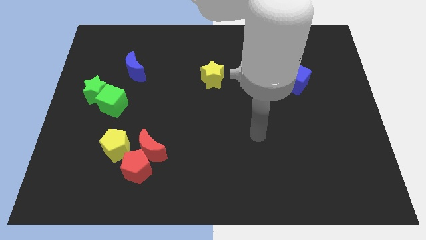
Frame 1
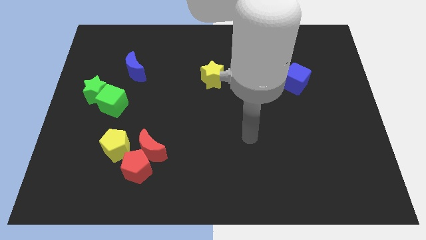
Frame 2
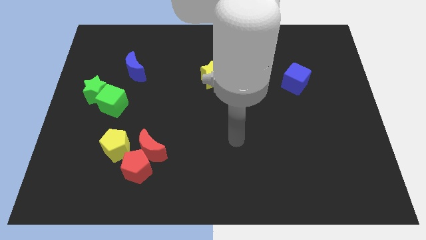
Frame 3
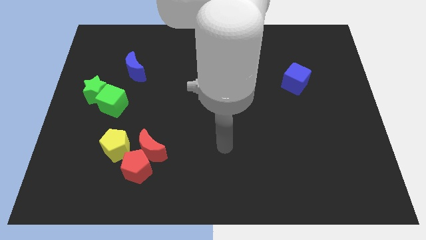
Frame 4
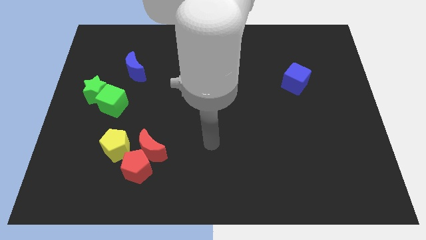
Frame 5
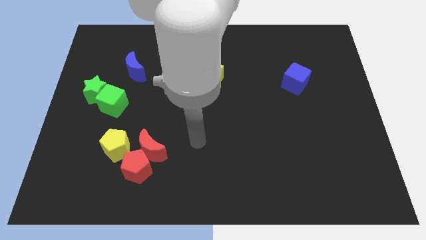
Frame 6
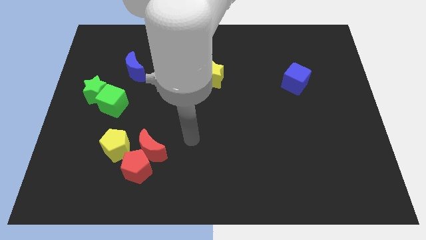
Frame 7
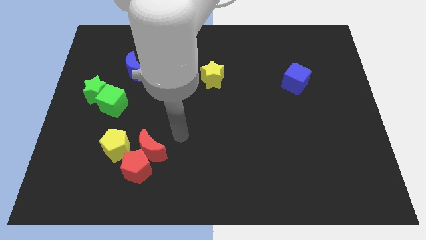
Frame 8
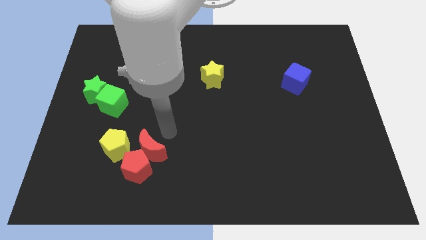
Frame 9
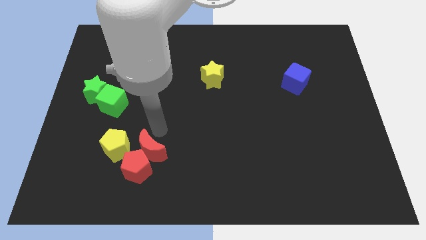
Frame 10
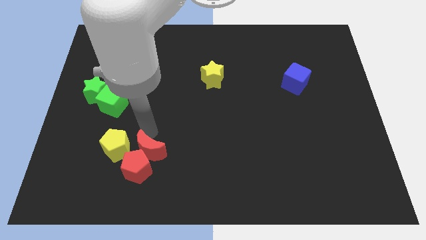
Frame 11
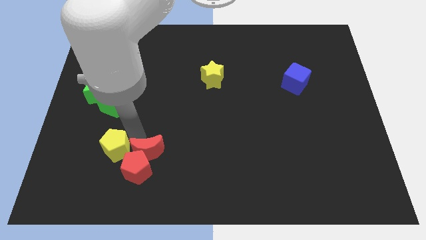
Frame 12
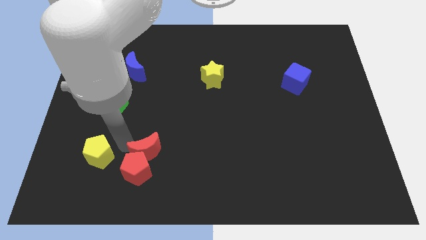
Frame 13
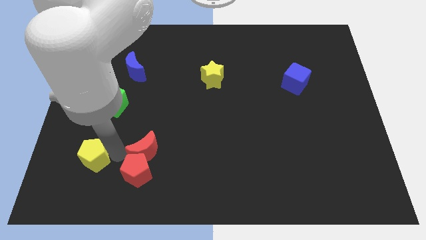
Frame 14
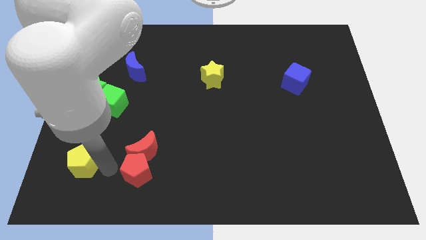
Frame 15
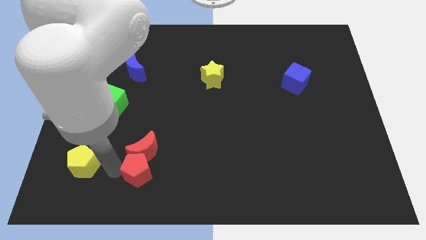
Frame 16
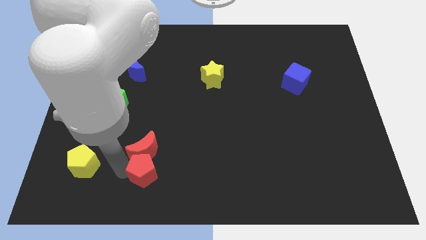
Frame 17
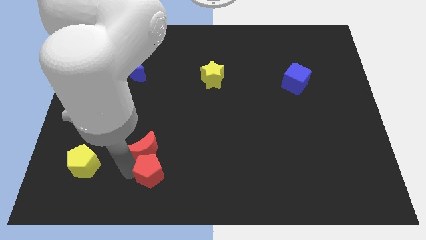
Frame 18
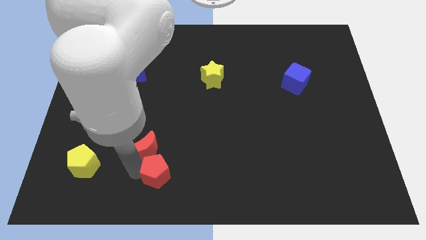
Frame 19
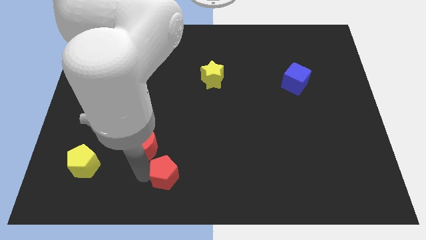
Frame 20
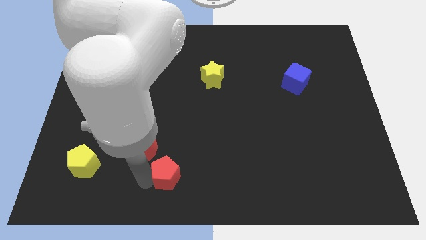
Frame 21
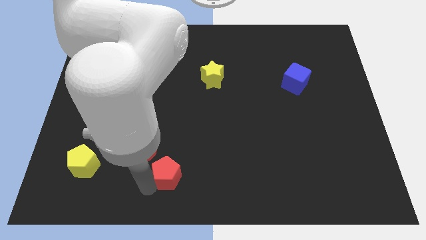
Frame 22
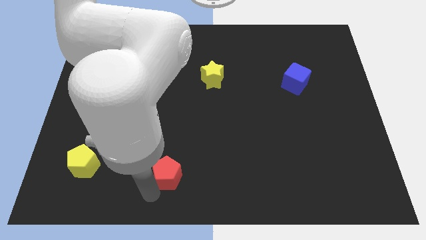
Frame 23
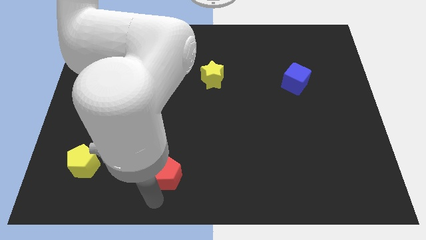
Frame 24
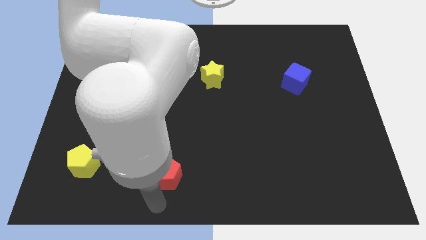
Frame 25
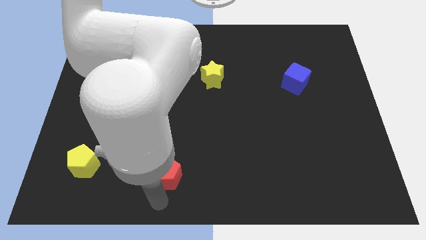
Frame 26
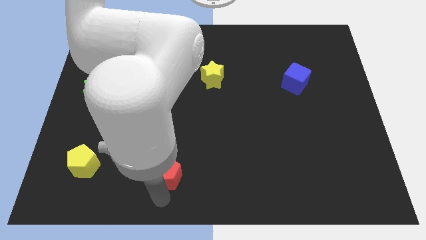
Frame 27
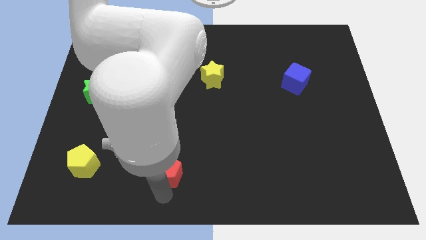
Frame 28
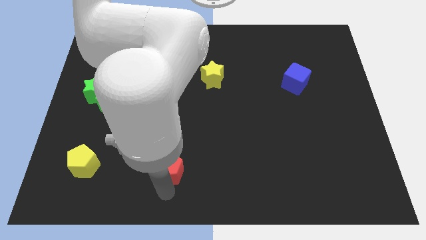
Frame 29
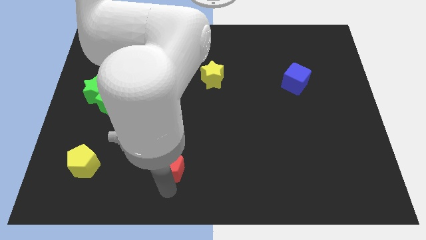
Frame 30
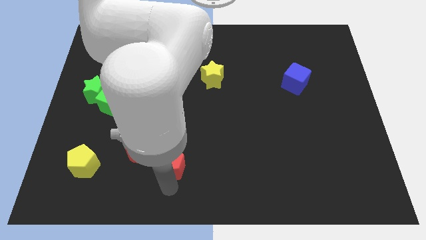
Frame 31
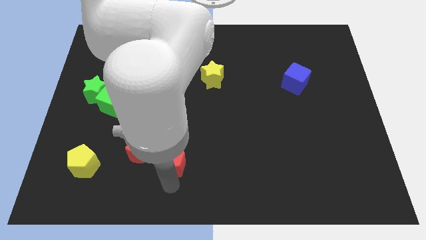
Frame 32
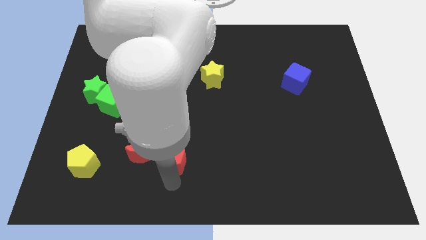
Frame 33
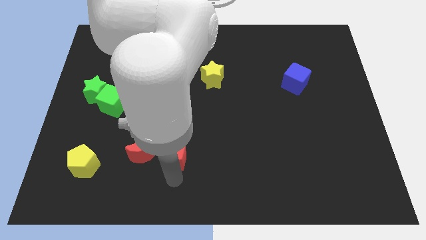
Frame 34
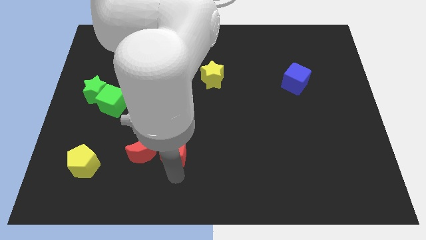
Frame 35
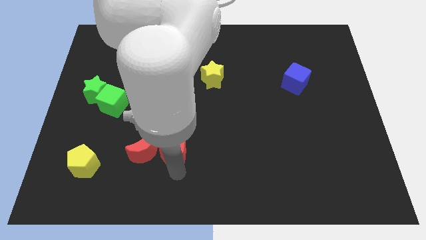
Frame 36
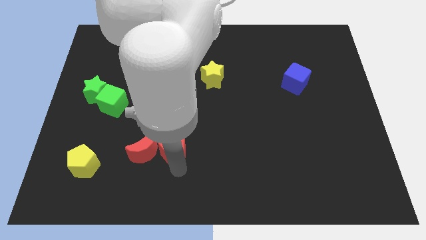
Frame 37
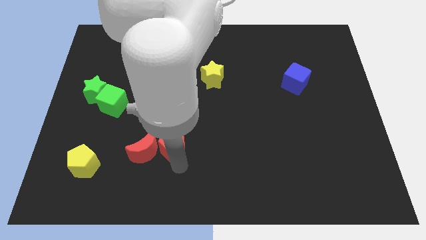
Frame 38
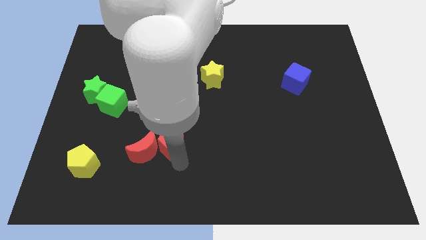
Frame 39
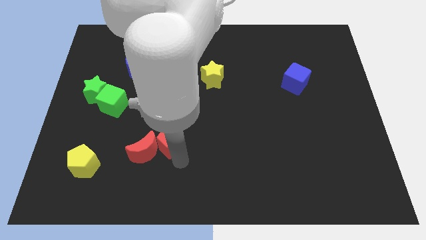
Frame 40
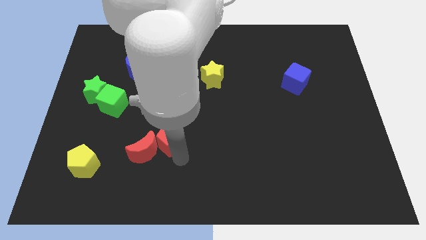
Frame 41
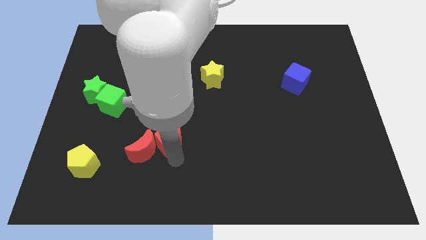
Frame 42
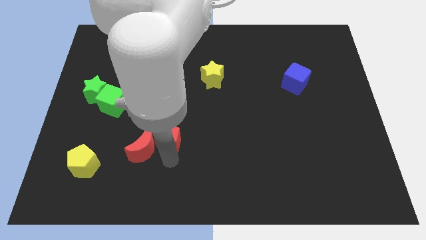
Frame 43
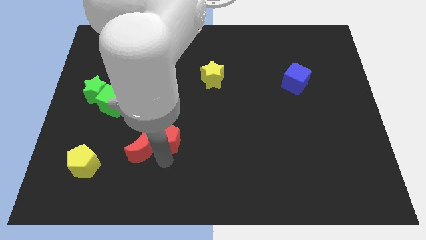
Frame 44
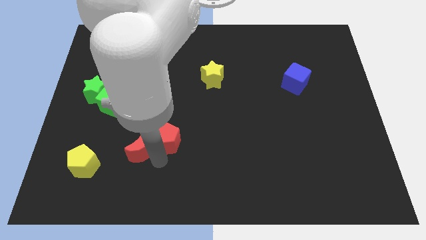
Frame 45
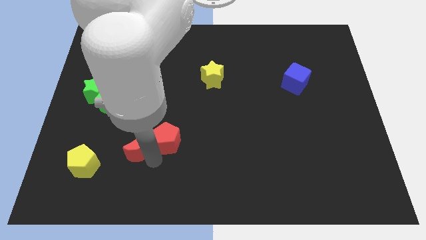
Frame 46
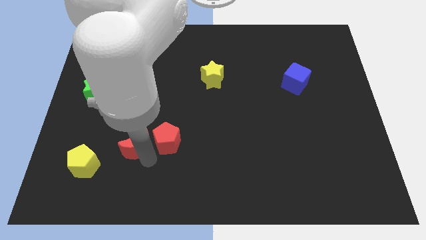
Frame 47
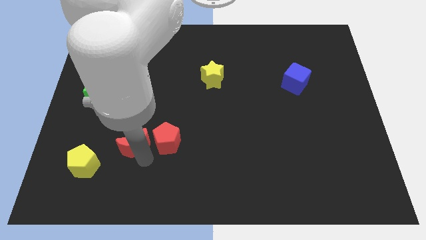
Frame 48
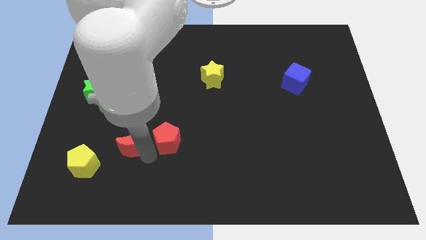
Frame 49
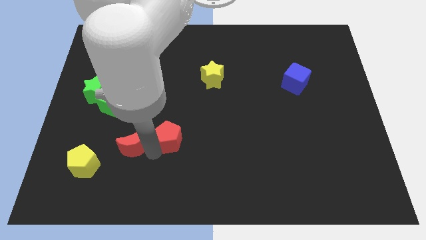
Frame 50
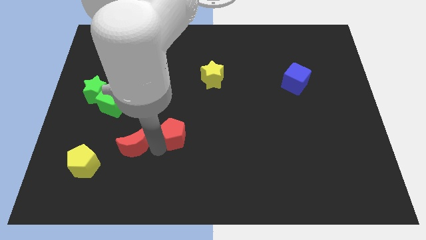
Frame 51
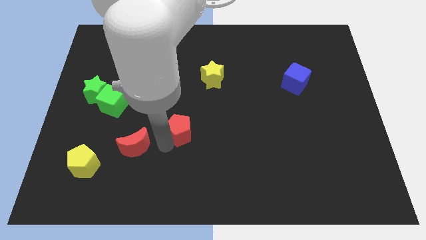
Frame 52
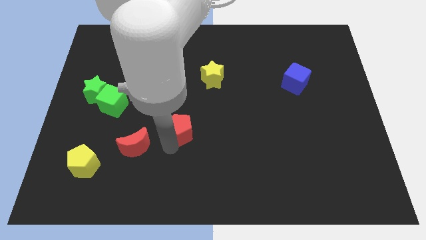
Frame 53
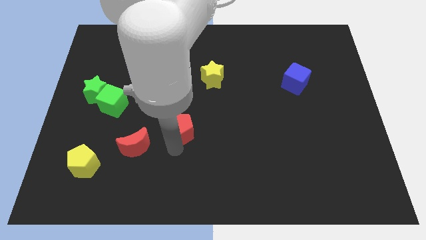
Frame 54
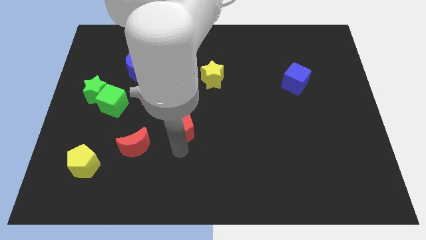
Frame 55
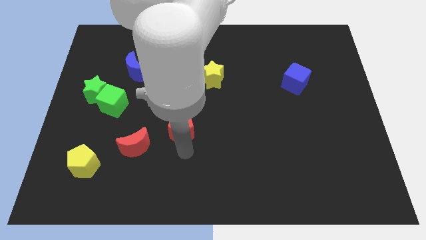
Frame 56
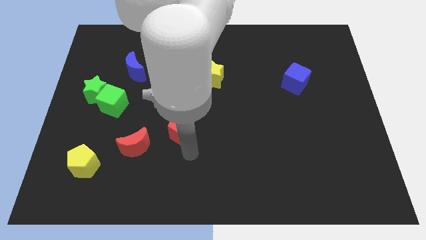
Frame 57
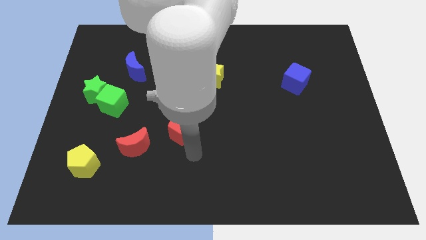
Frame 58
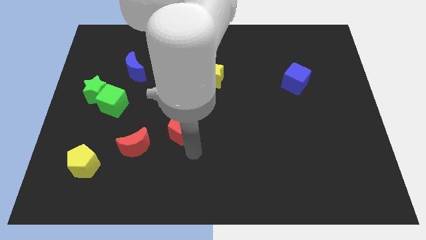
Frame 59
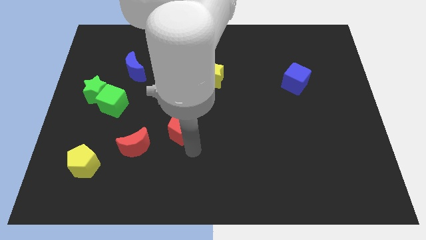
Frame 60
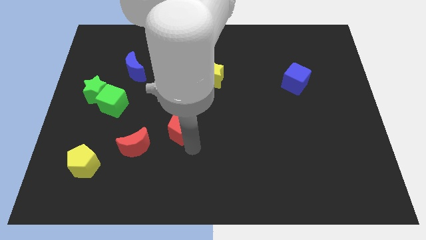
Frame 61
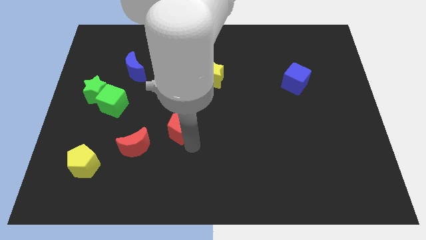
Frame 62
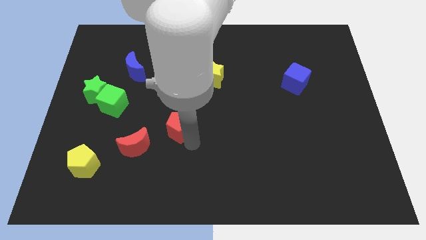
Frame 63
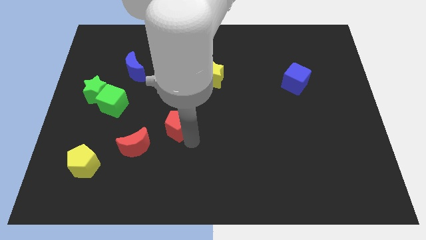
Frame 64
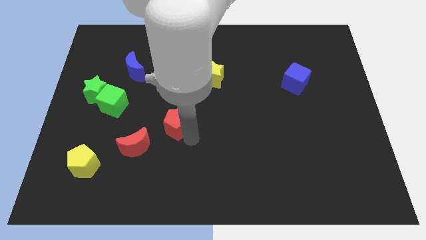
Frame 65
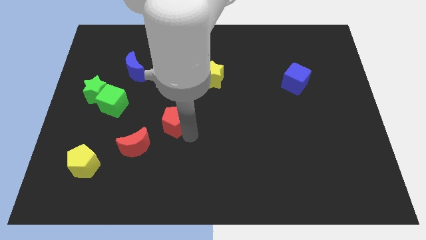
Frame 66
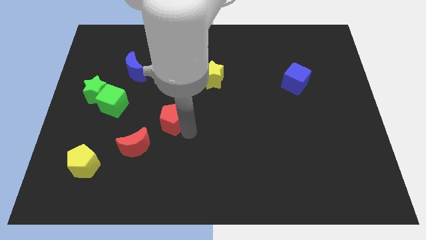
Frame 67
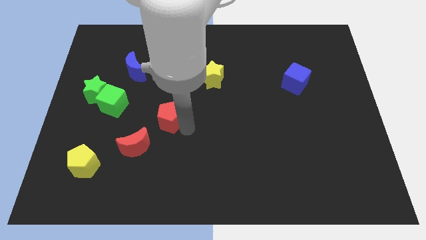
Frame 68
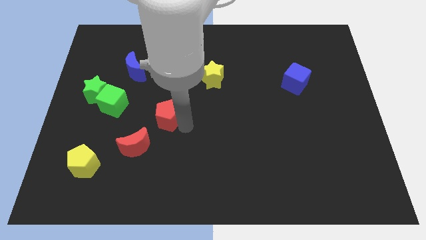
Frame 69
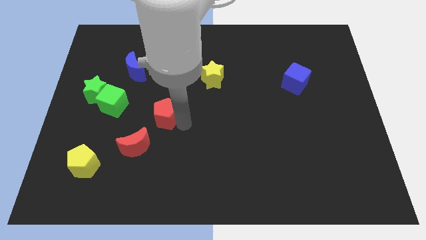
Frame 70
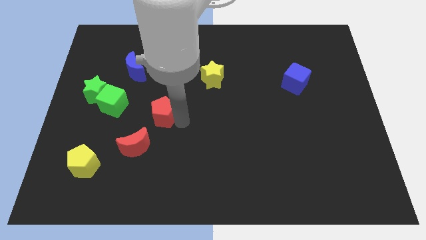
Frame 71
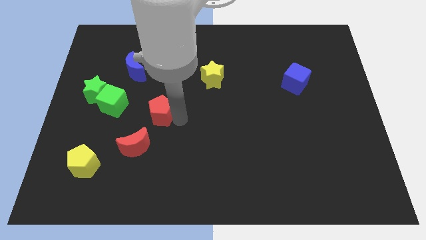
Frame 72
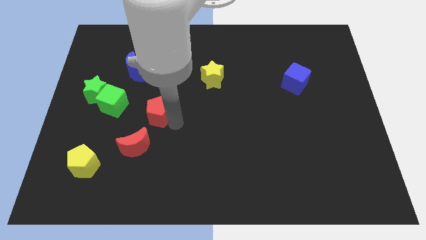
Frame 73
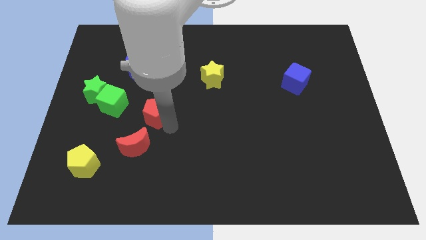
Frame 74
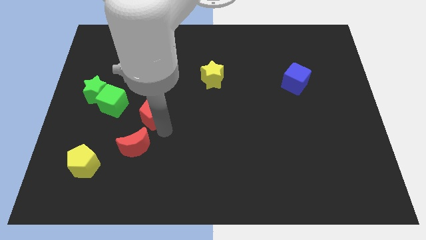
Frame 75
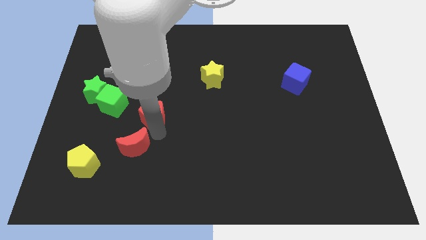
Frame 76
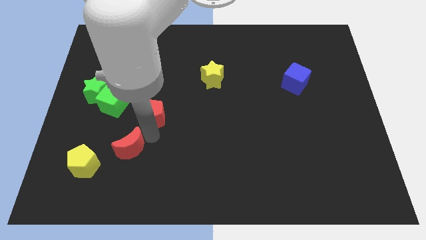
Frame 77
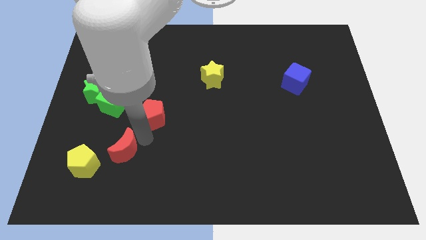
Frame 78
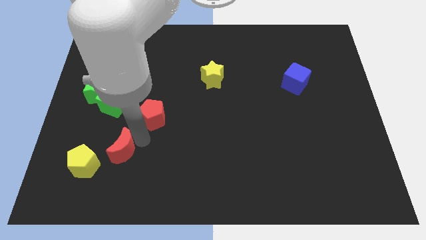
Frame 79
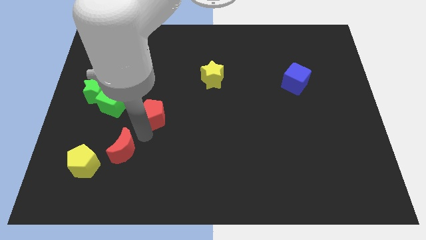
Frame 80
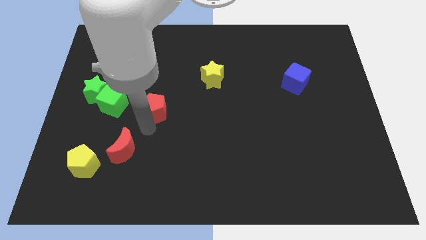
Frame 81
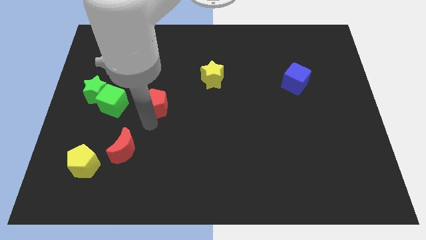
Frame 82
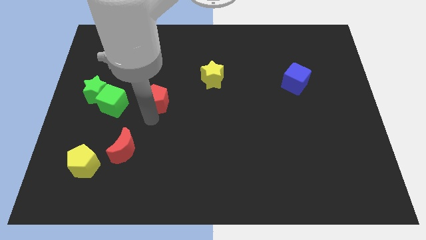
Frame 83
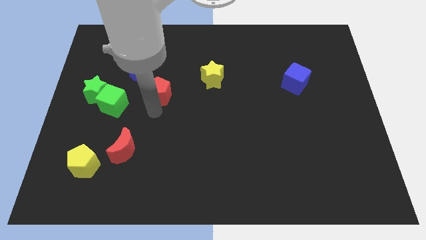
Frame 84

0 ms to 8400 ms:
move the red pentagon up
